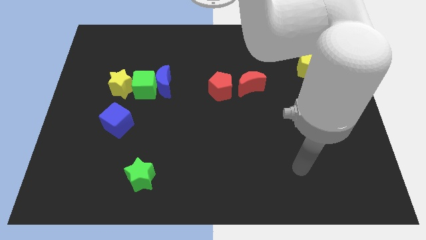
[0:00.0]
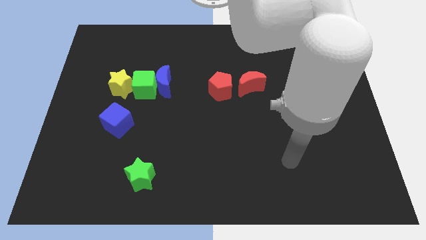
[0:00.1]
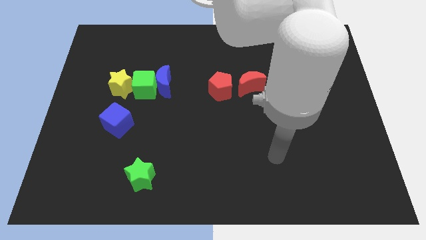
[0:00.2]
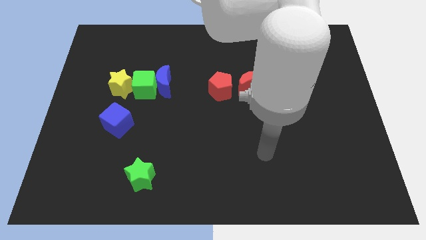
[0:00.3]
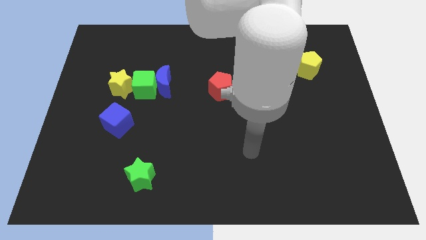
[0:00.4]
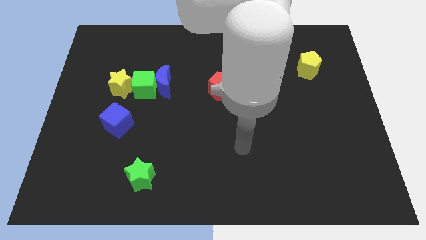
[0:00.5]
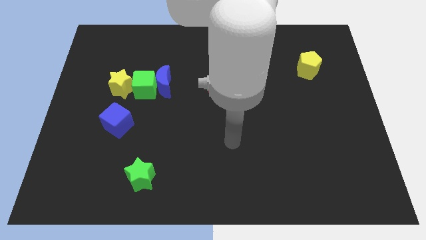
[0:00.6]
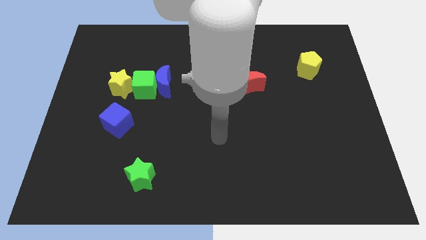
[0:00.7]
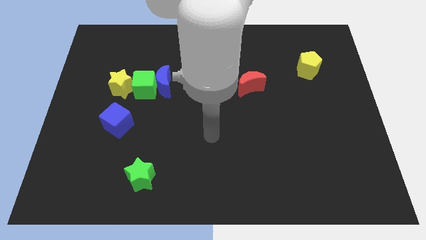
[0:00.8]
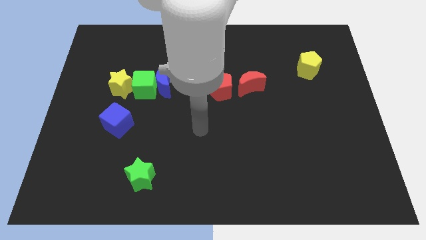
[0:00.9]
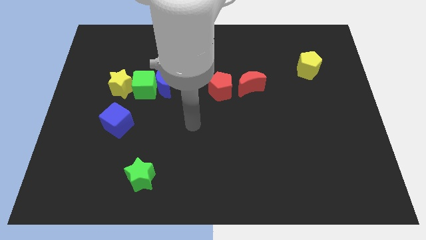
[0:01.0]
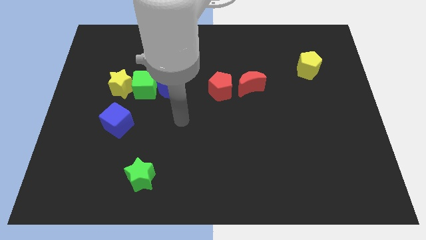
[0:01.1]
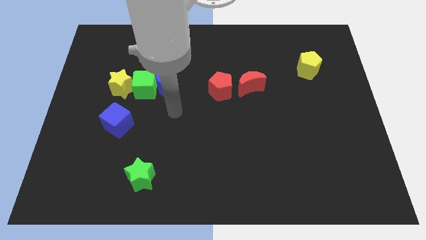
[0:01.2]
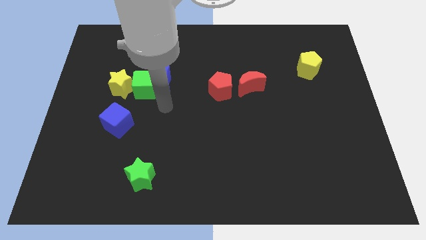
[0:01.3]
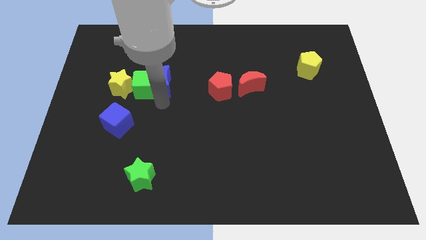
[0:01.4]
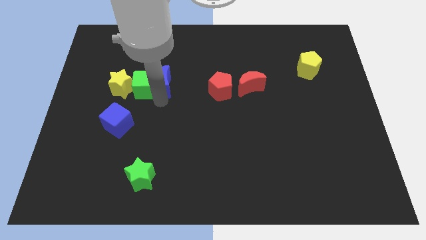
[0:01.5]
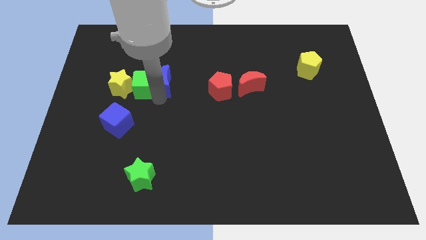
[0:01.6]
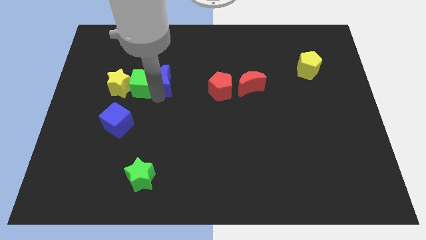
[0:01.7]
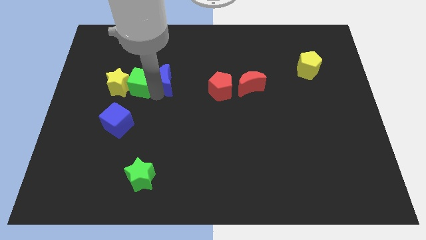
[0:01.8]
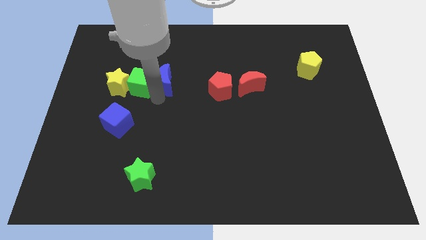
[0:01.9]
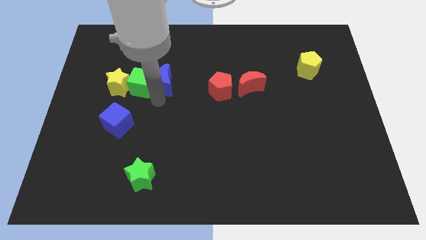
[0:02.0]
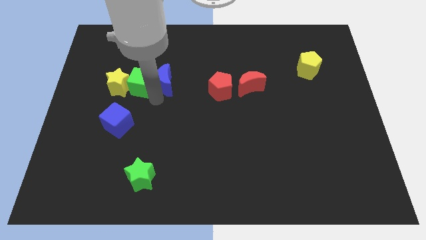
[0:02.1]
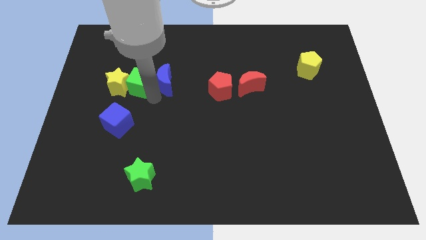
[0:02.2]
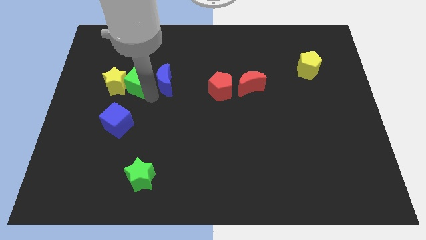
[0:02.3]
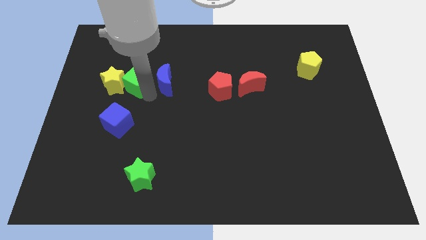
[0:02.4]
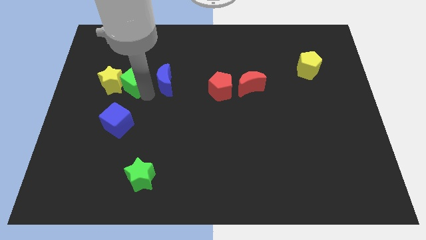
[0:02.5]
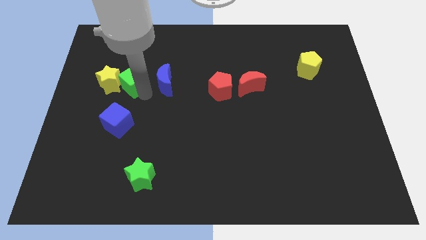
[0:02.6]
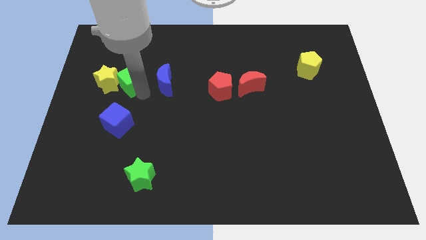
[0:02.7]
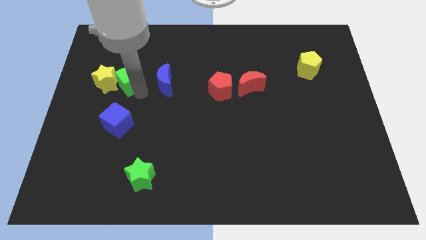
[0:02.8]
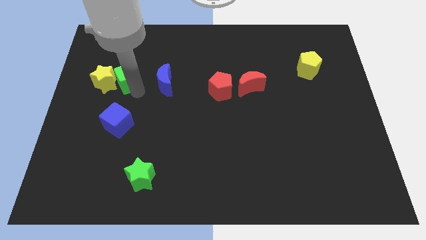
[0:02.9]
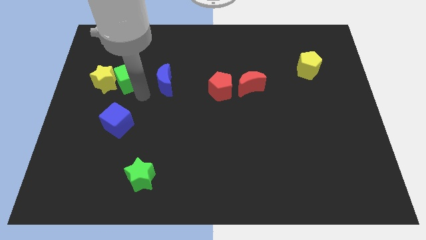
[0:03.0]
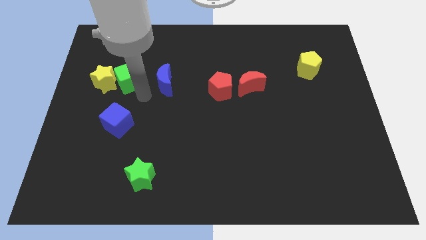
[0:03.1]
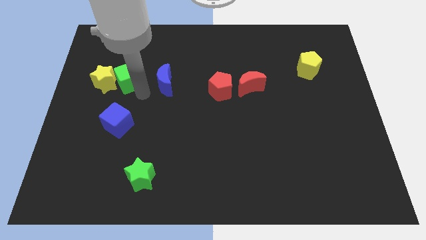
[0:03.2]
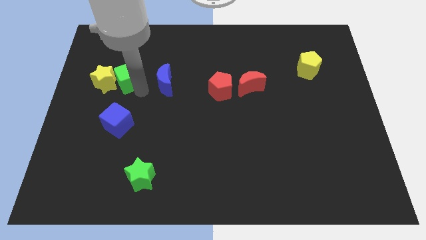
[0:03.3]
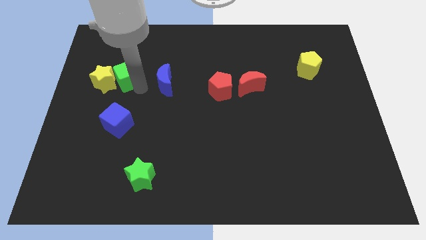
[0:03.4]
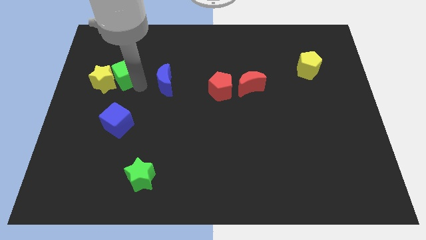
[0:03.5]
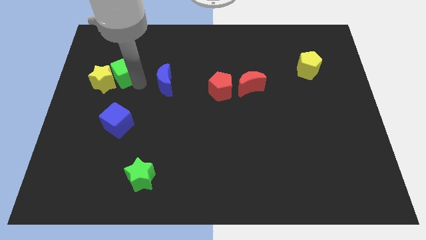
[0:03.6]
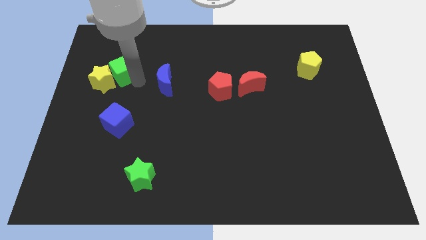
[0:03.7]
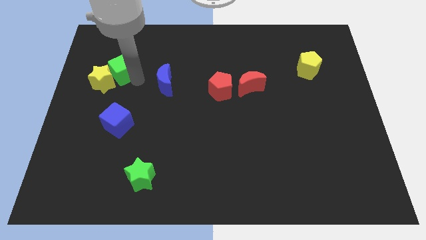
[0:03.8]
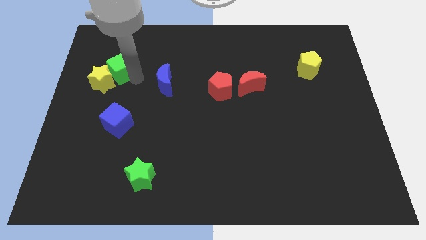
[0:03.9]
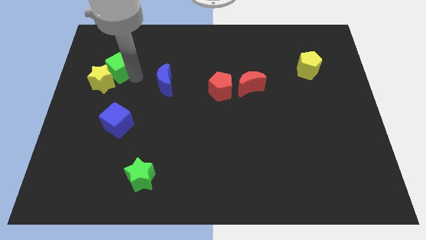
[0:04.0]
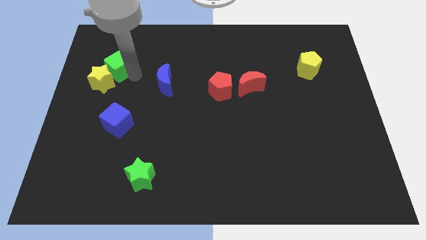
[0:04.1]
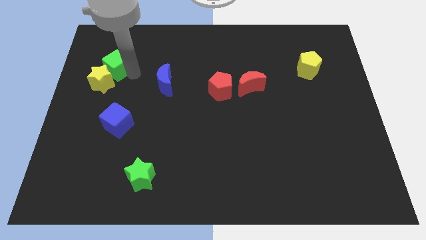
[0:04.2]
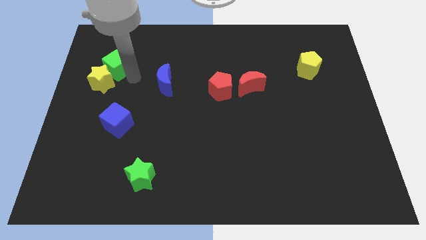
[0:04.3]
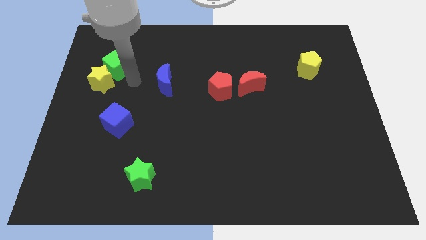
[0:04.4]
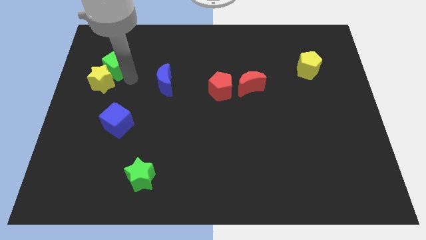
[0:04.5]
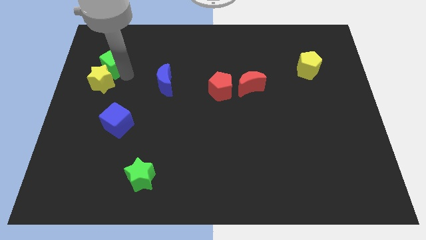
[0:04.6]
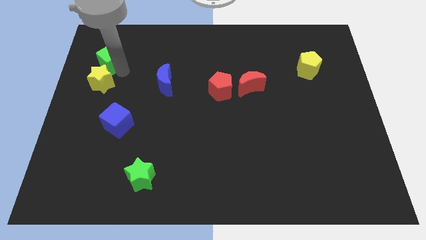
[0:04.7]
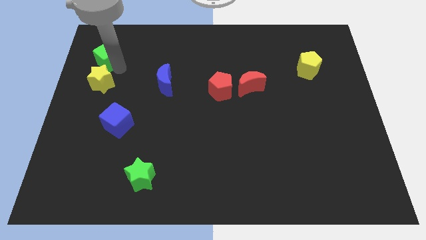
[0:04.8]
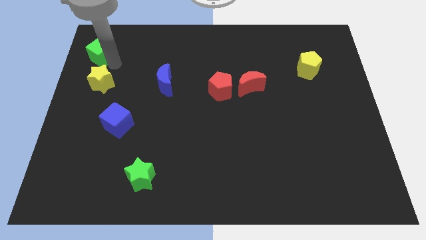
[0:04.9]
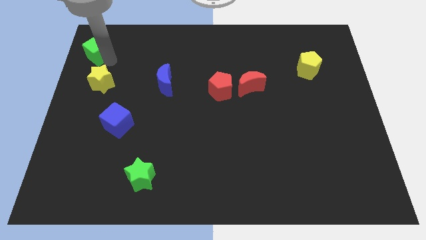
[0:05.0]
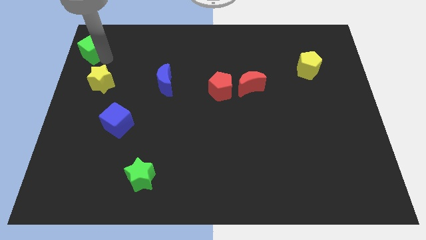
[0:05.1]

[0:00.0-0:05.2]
put the green cube to the top left of the board

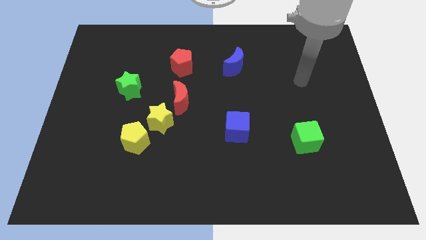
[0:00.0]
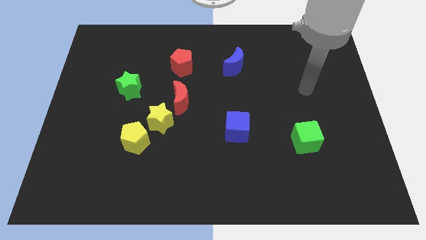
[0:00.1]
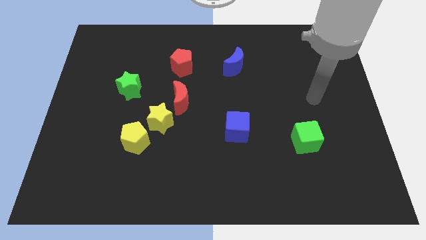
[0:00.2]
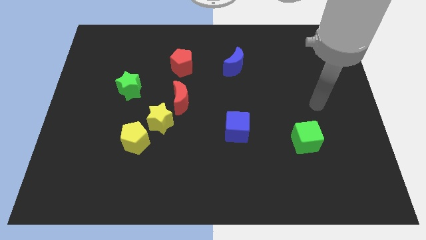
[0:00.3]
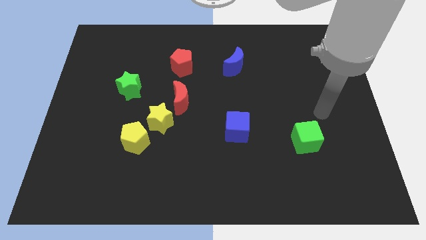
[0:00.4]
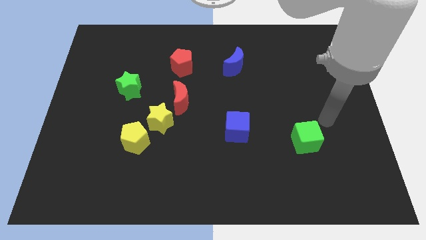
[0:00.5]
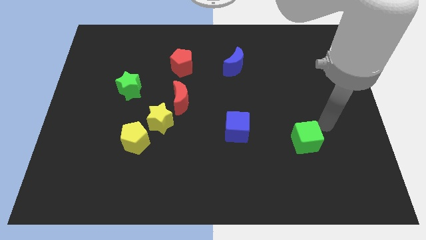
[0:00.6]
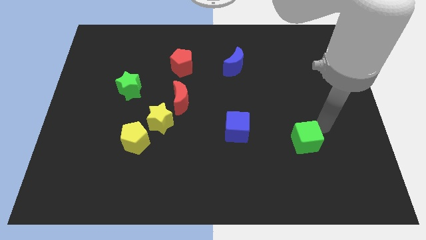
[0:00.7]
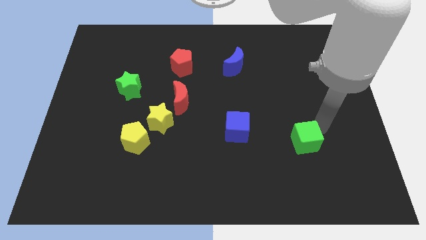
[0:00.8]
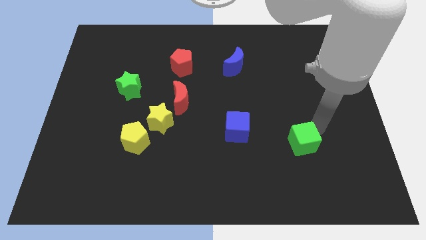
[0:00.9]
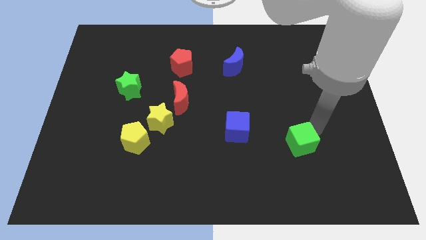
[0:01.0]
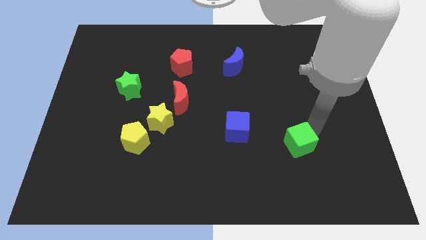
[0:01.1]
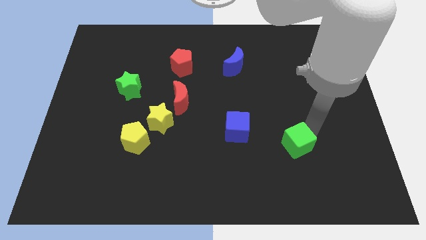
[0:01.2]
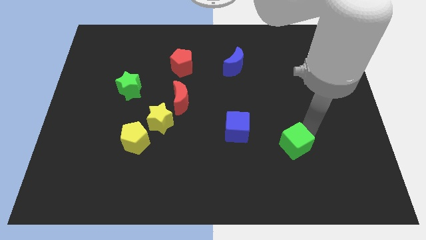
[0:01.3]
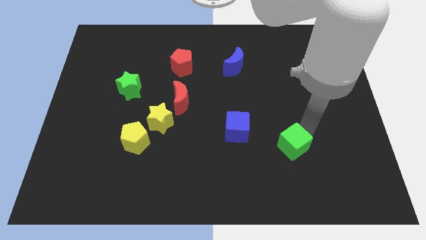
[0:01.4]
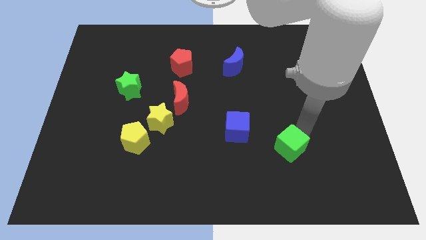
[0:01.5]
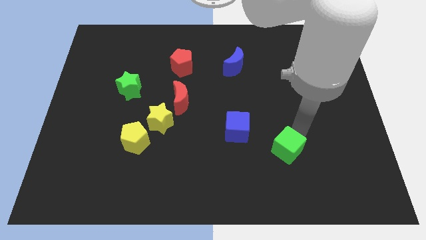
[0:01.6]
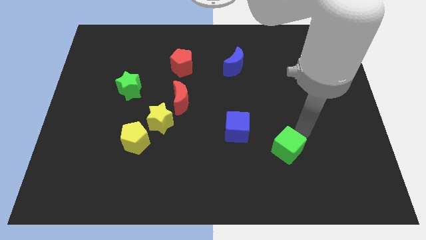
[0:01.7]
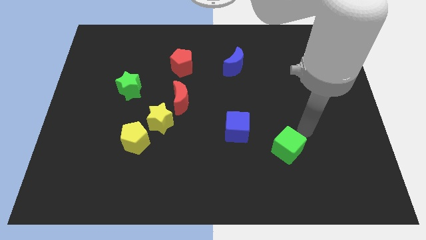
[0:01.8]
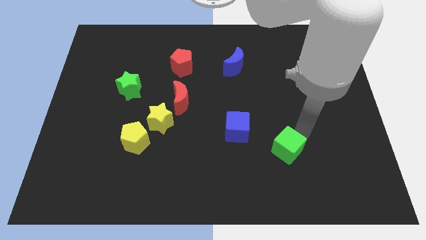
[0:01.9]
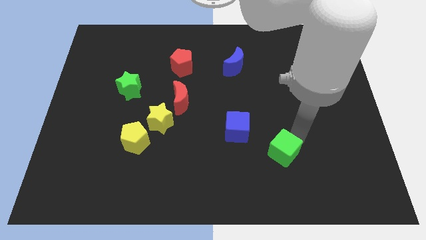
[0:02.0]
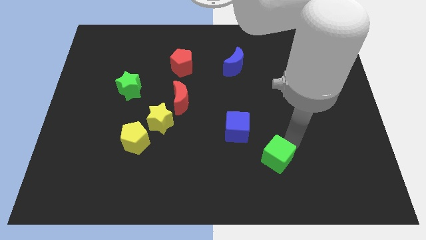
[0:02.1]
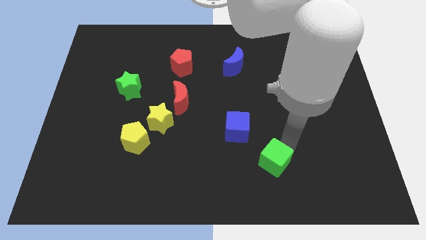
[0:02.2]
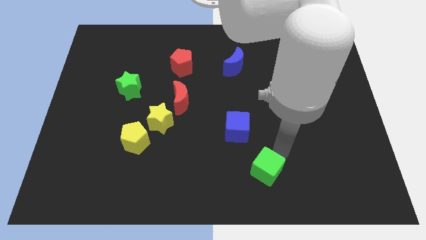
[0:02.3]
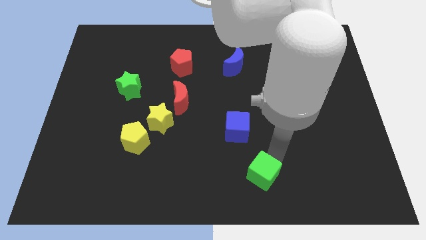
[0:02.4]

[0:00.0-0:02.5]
push the green cube to the bottom side
